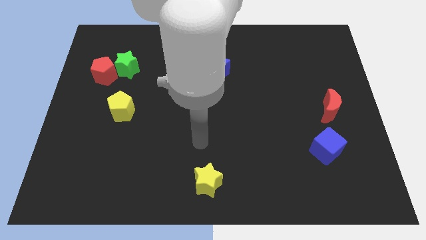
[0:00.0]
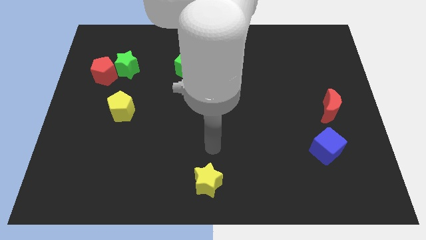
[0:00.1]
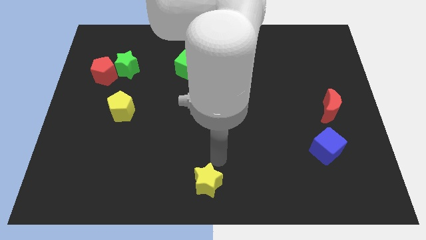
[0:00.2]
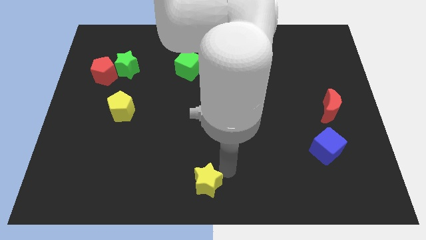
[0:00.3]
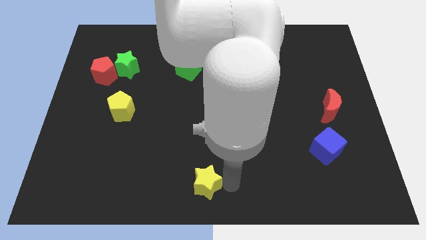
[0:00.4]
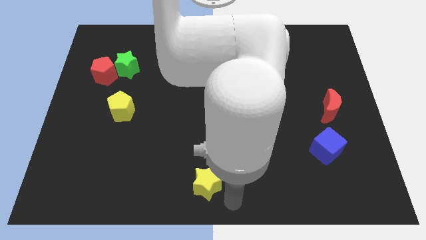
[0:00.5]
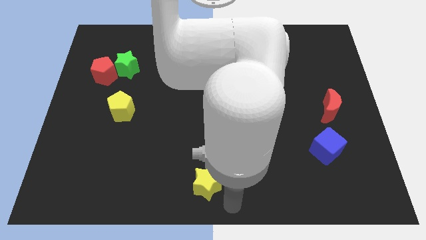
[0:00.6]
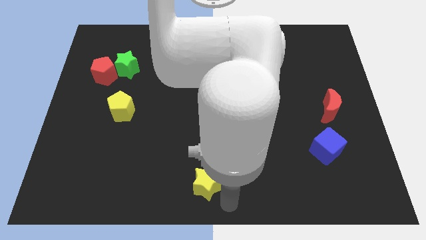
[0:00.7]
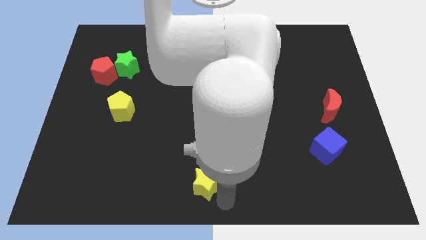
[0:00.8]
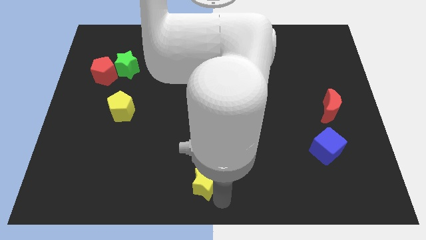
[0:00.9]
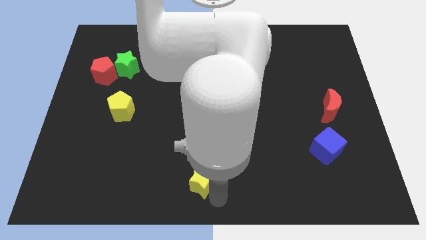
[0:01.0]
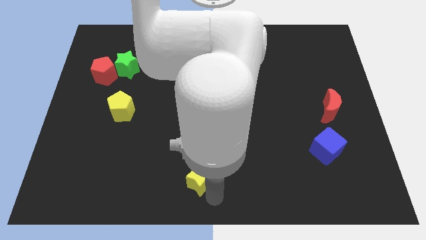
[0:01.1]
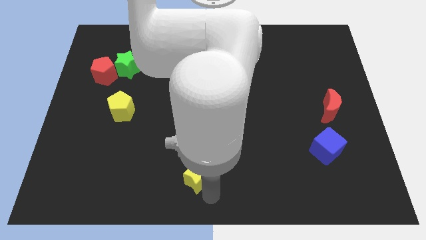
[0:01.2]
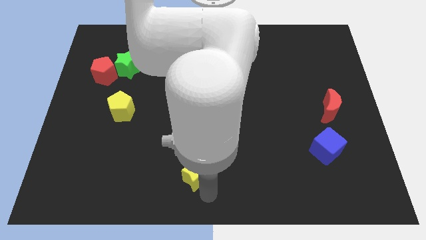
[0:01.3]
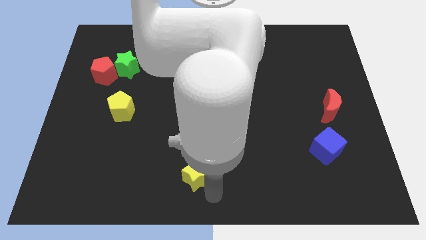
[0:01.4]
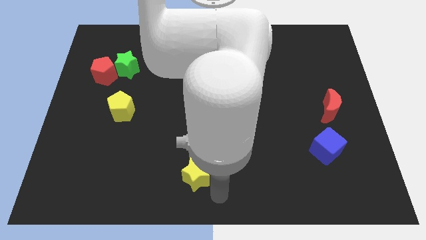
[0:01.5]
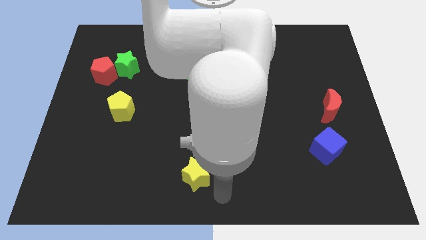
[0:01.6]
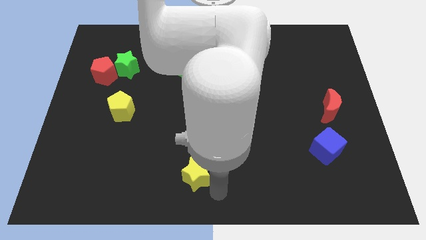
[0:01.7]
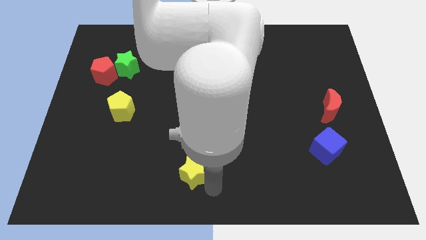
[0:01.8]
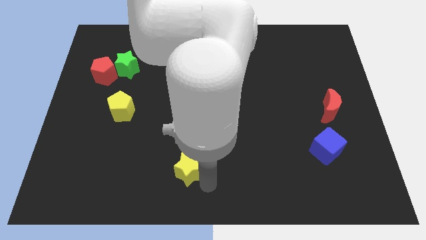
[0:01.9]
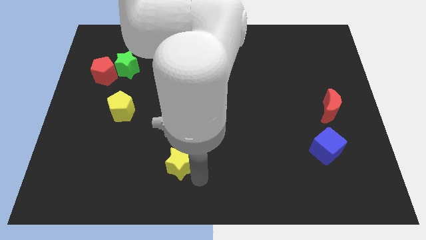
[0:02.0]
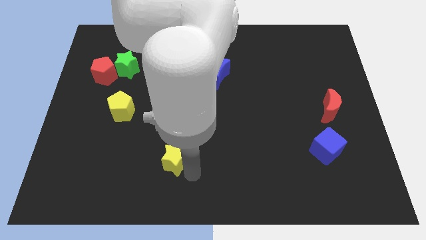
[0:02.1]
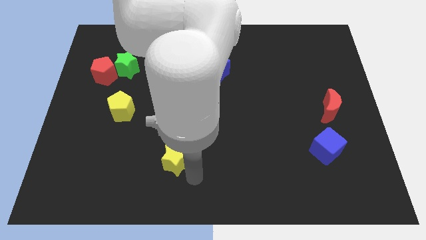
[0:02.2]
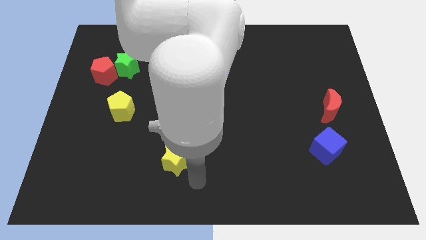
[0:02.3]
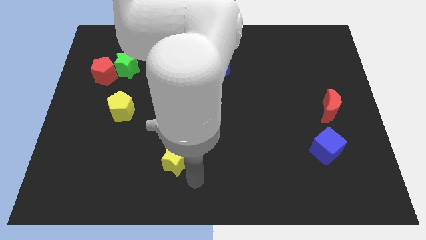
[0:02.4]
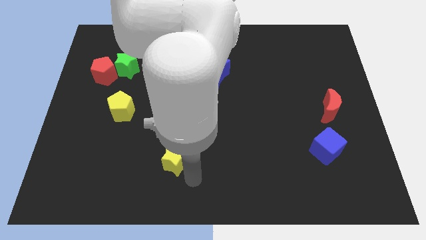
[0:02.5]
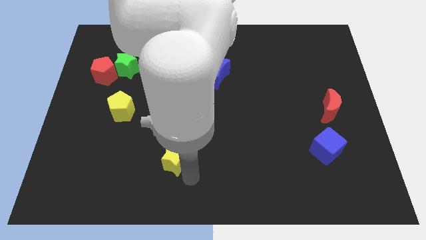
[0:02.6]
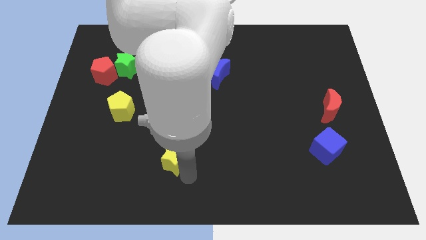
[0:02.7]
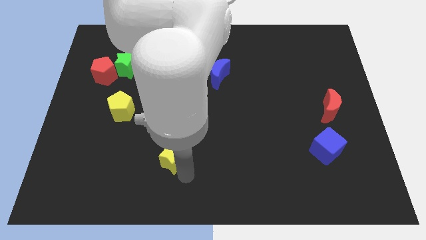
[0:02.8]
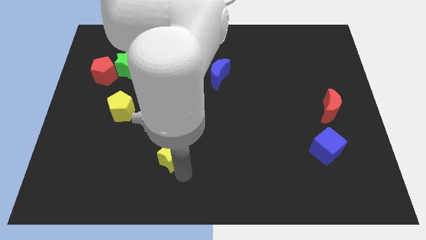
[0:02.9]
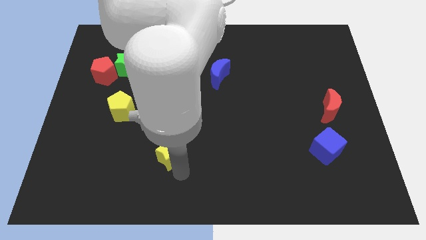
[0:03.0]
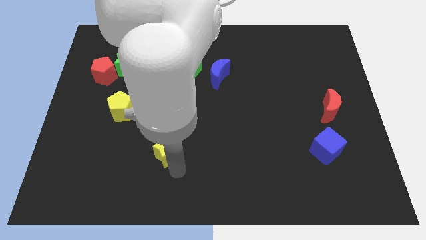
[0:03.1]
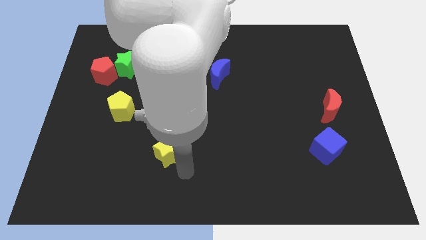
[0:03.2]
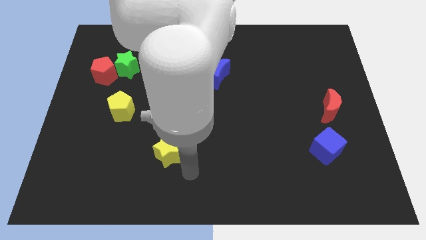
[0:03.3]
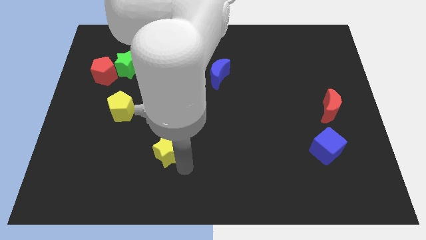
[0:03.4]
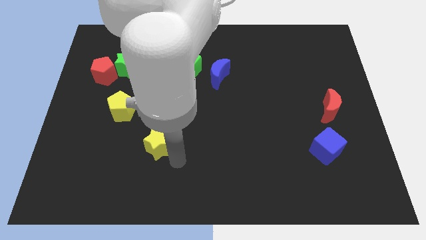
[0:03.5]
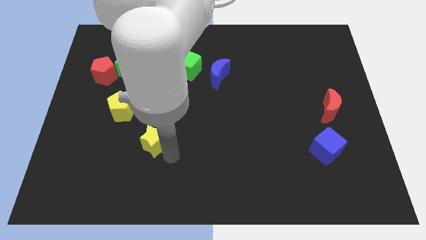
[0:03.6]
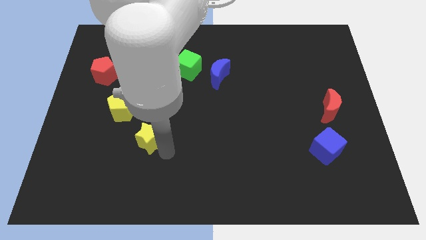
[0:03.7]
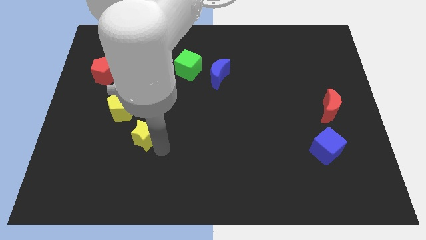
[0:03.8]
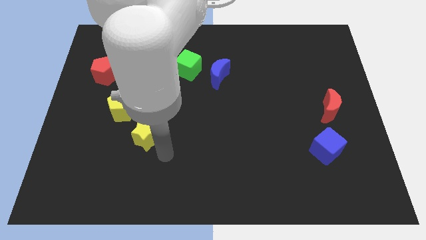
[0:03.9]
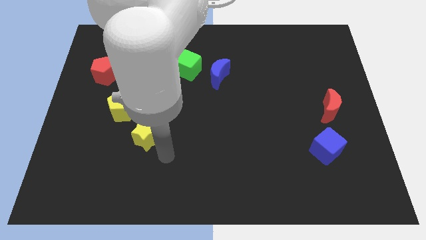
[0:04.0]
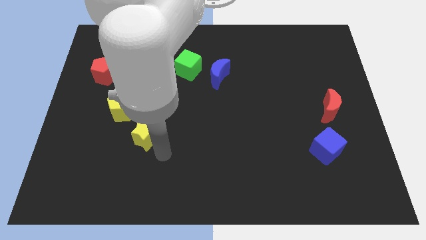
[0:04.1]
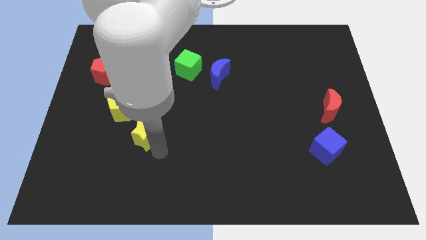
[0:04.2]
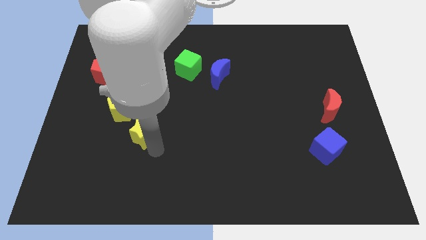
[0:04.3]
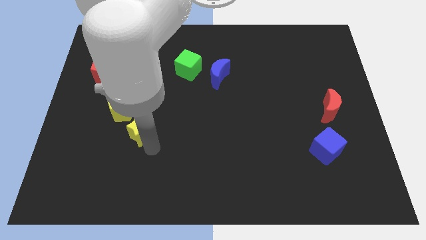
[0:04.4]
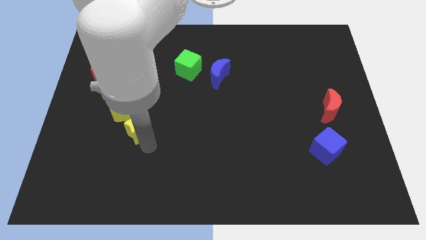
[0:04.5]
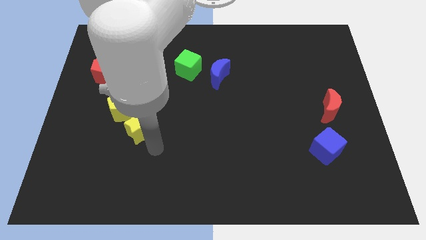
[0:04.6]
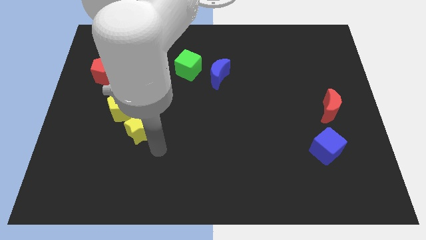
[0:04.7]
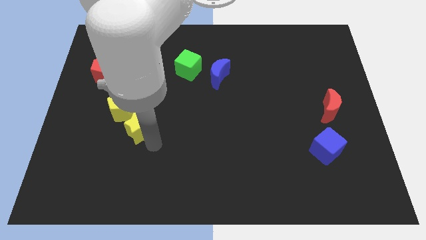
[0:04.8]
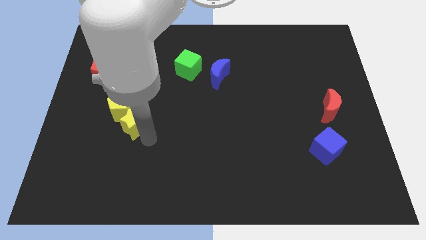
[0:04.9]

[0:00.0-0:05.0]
put the yellow star close to the yellow pentagon

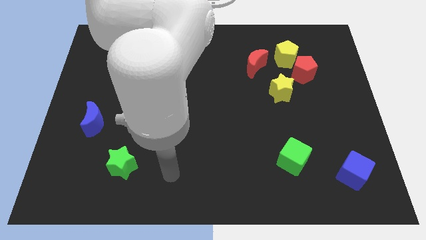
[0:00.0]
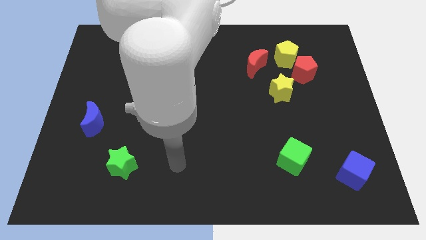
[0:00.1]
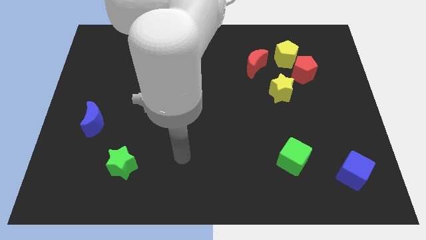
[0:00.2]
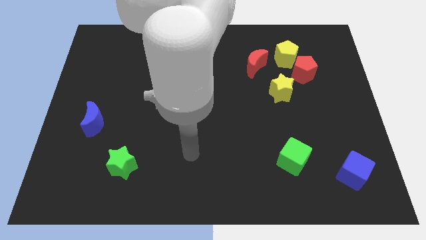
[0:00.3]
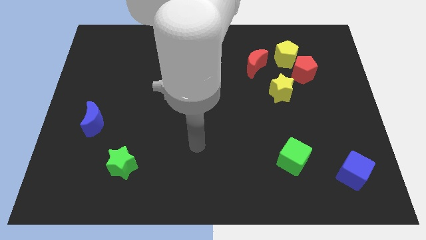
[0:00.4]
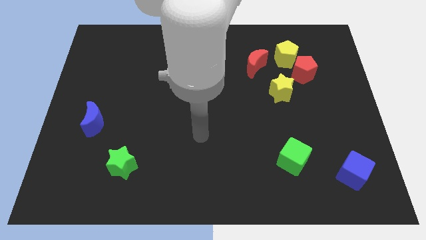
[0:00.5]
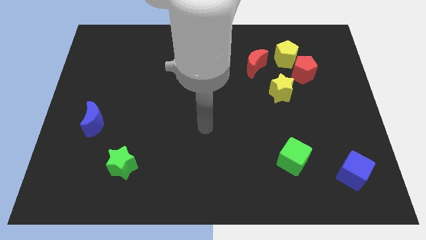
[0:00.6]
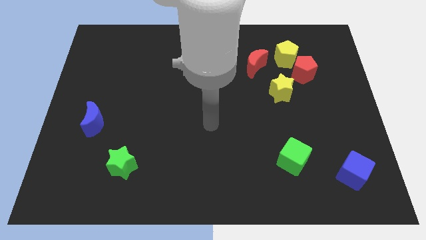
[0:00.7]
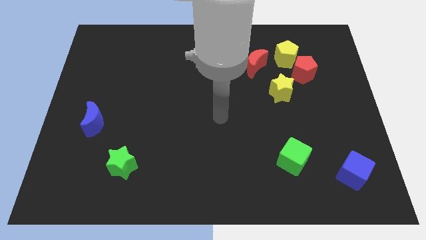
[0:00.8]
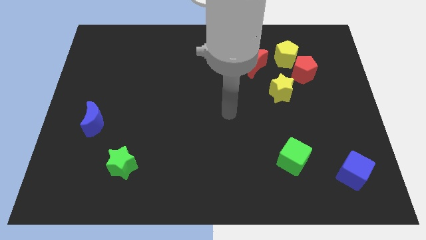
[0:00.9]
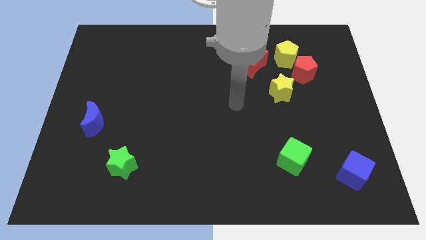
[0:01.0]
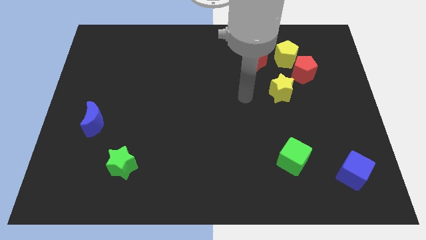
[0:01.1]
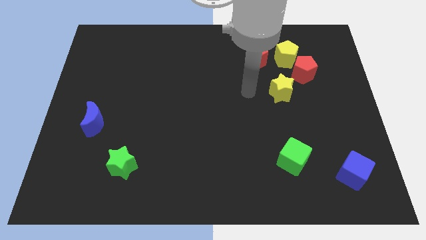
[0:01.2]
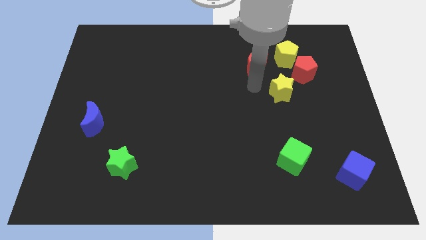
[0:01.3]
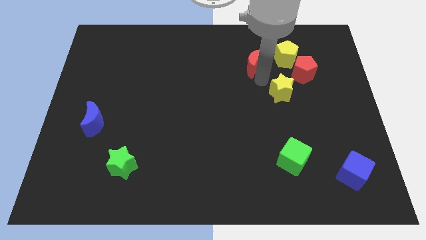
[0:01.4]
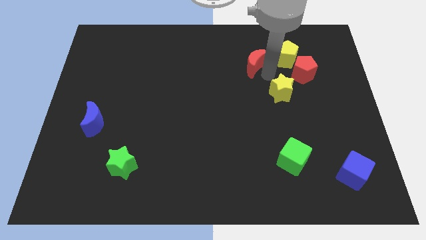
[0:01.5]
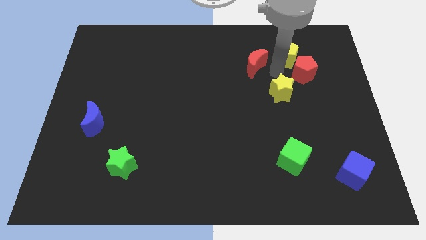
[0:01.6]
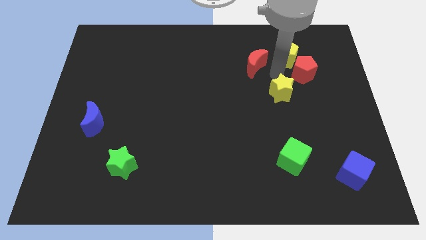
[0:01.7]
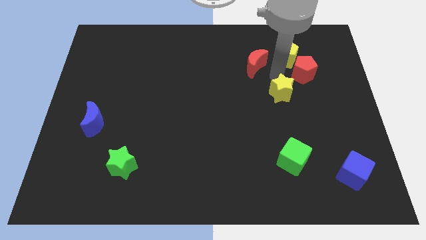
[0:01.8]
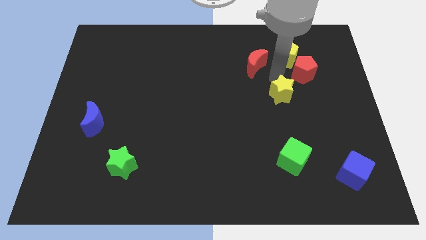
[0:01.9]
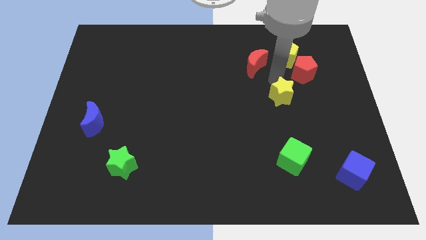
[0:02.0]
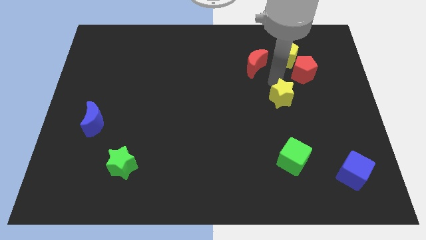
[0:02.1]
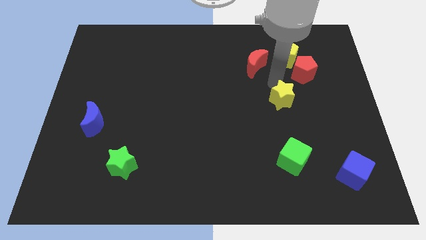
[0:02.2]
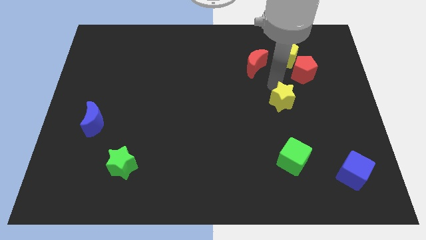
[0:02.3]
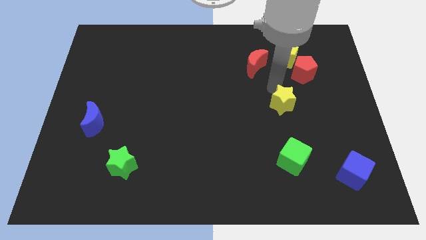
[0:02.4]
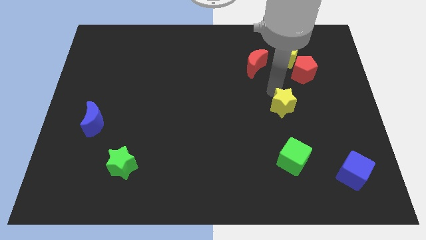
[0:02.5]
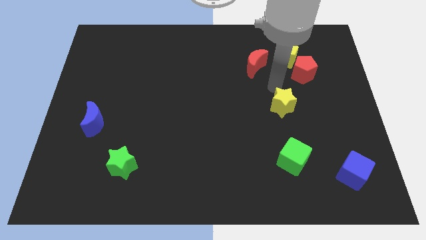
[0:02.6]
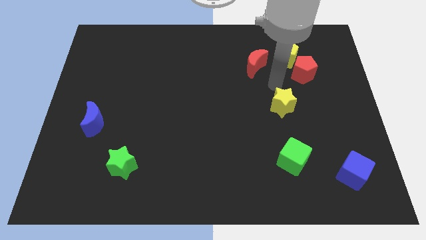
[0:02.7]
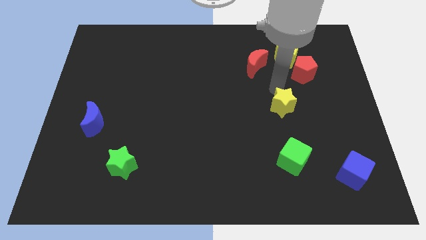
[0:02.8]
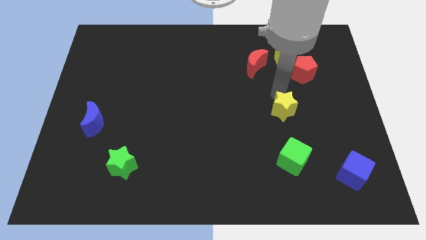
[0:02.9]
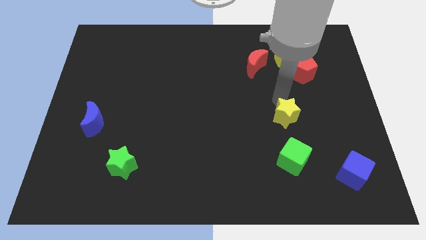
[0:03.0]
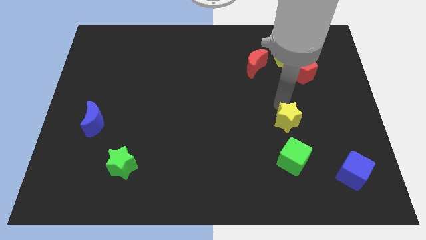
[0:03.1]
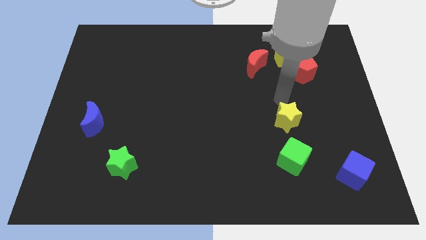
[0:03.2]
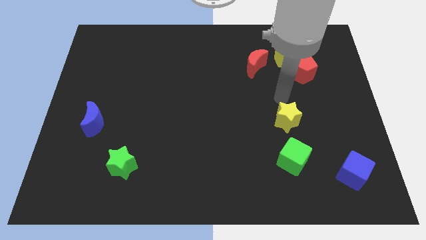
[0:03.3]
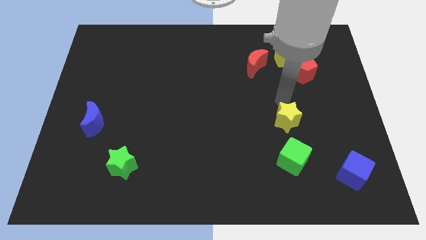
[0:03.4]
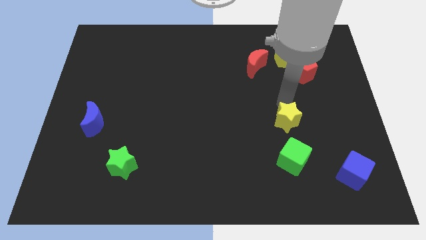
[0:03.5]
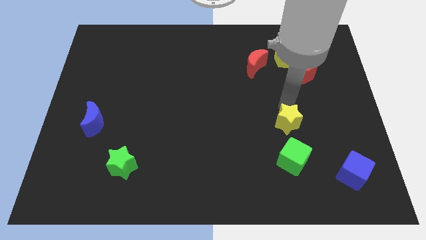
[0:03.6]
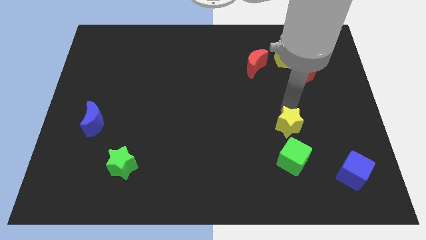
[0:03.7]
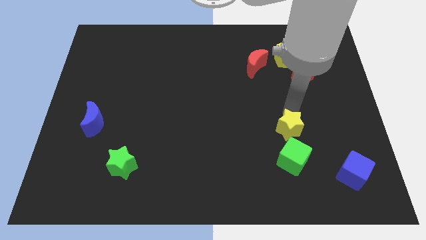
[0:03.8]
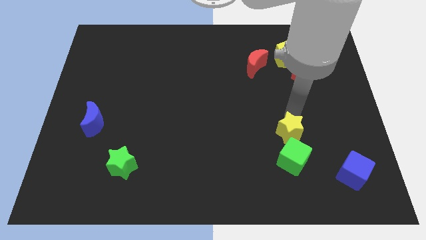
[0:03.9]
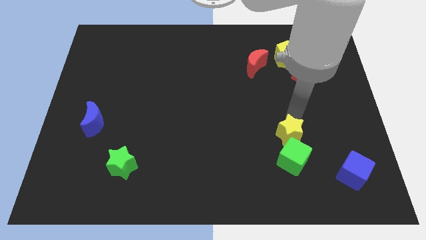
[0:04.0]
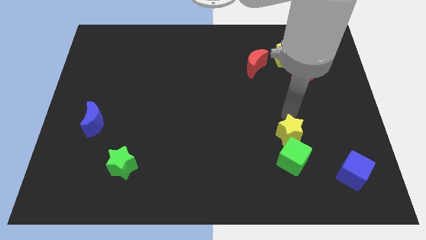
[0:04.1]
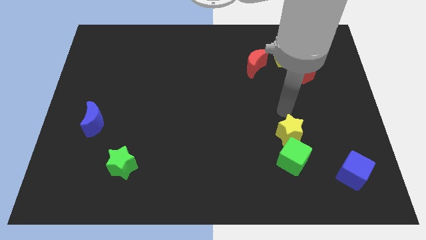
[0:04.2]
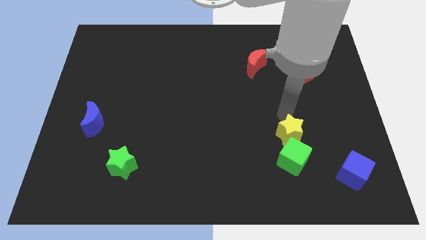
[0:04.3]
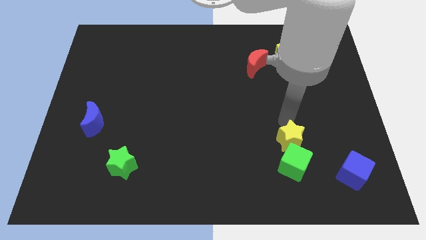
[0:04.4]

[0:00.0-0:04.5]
push the yellow star close to the green cube
